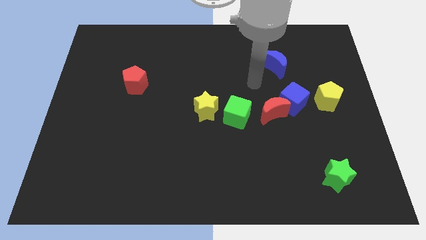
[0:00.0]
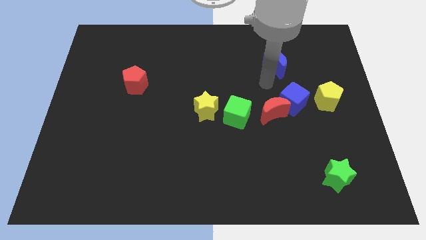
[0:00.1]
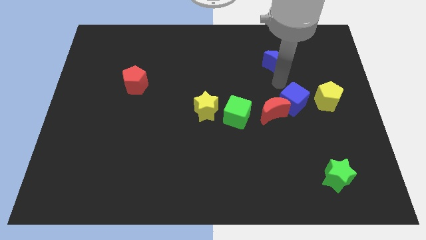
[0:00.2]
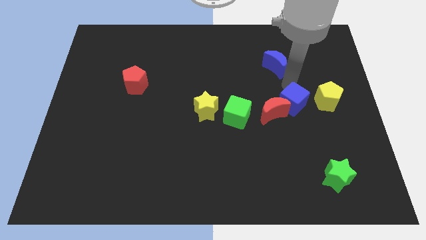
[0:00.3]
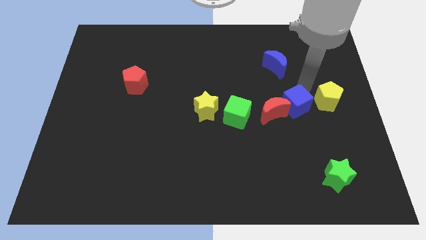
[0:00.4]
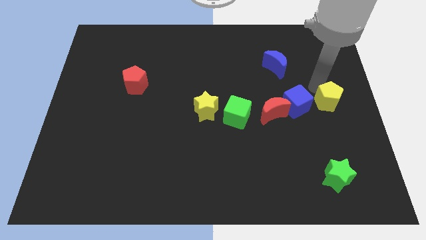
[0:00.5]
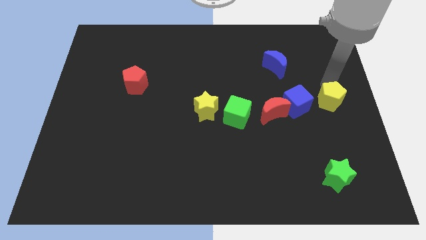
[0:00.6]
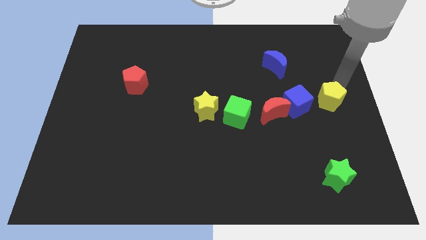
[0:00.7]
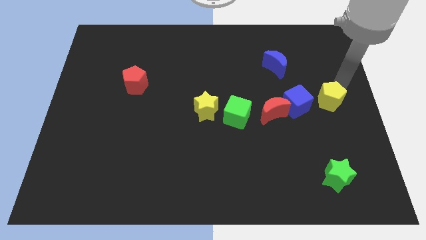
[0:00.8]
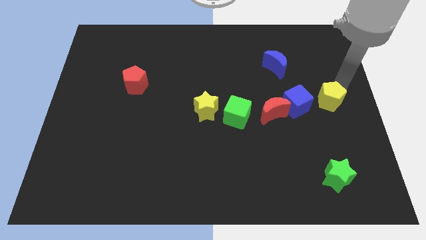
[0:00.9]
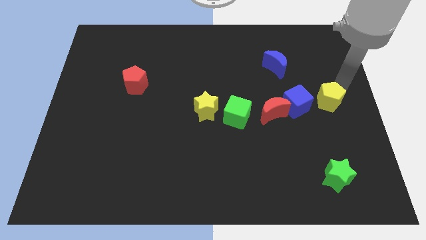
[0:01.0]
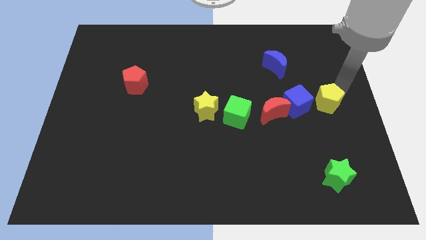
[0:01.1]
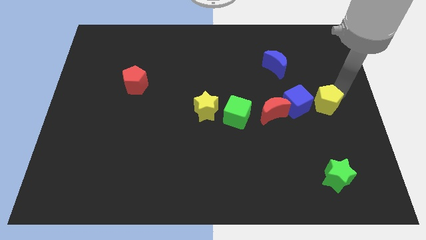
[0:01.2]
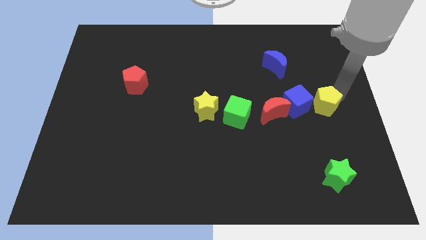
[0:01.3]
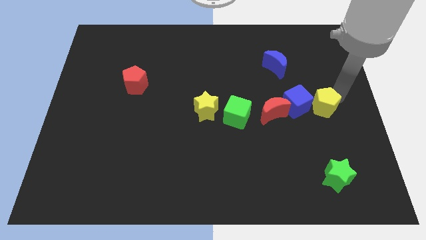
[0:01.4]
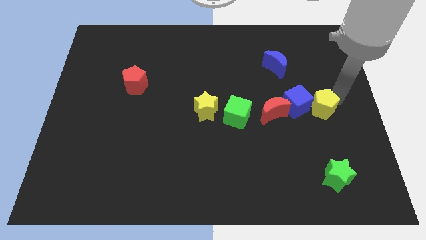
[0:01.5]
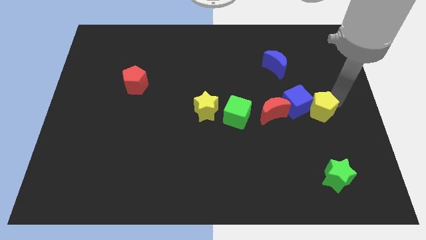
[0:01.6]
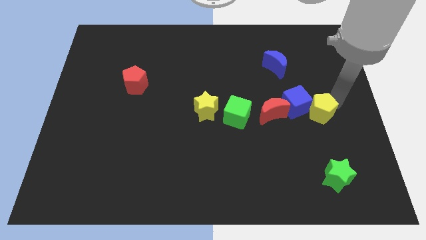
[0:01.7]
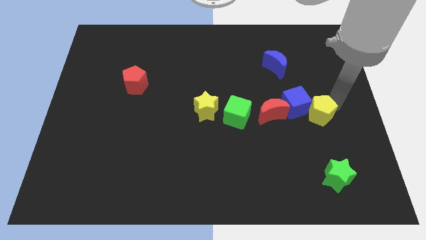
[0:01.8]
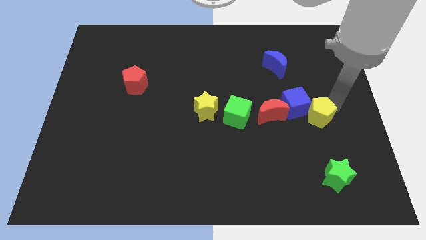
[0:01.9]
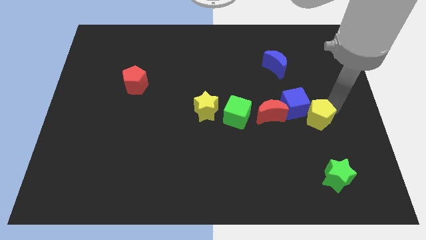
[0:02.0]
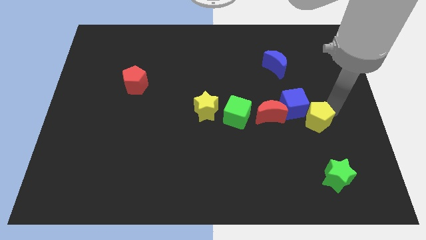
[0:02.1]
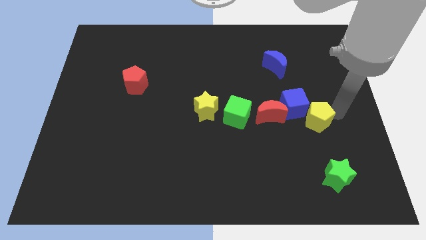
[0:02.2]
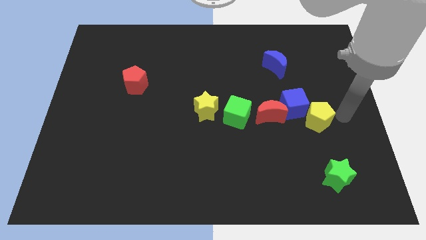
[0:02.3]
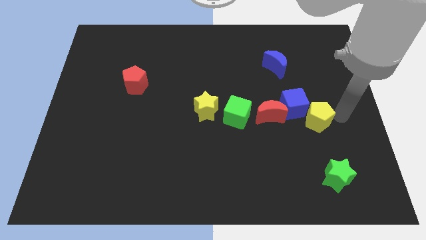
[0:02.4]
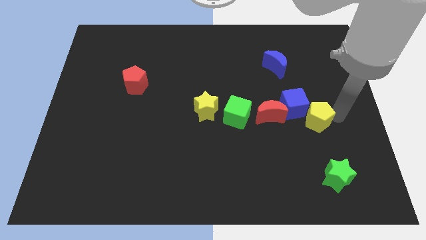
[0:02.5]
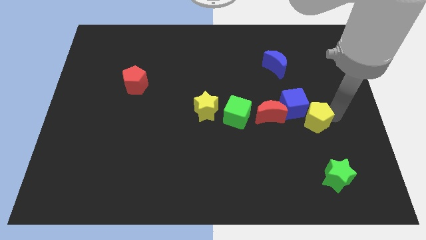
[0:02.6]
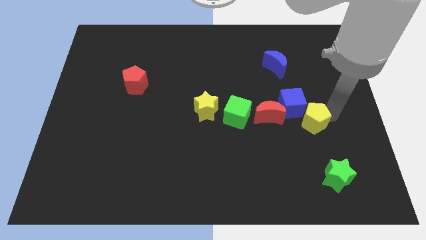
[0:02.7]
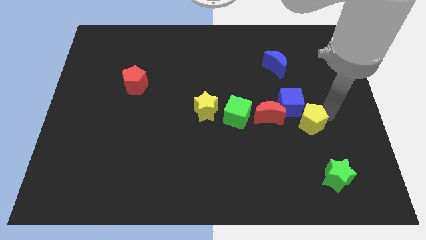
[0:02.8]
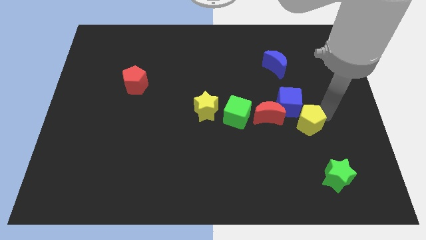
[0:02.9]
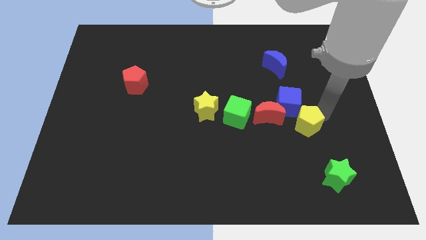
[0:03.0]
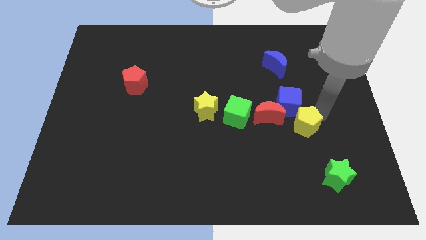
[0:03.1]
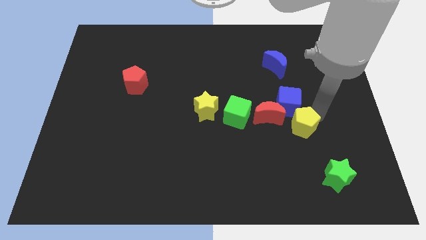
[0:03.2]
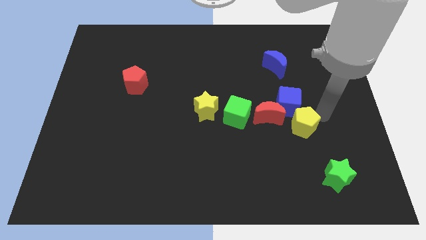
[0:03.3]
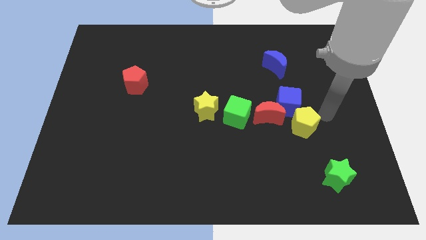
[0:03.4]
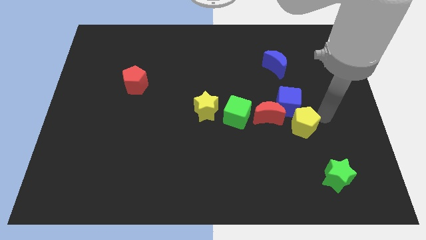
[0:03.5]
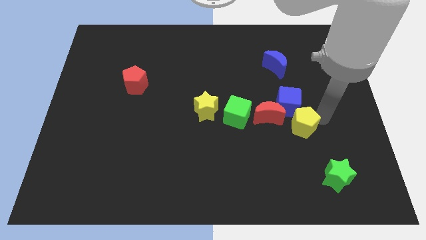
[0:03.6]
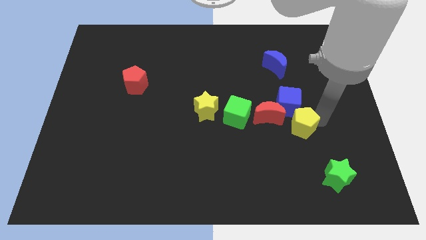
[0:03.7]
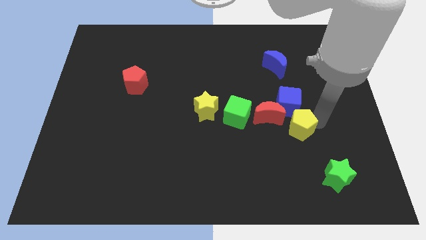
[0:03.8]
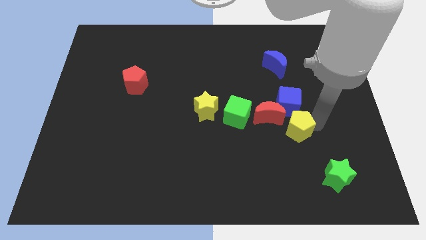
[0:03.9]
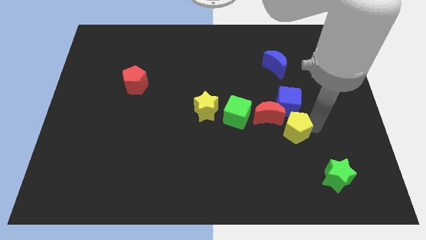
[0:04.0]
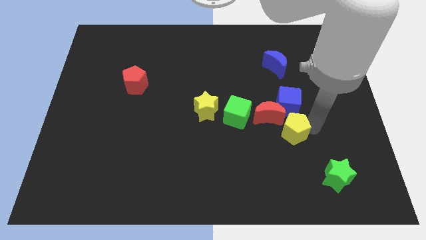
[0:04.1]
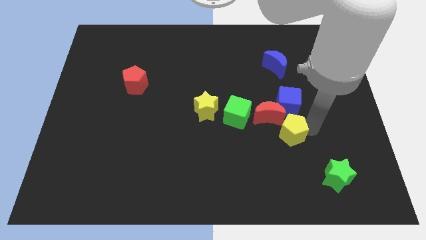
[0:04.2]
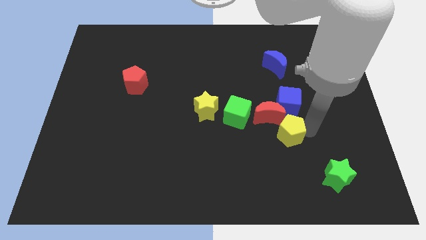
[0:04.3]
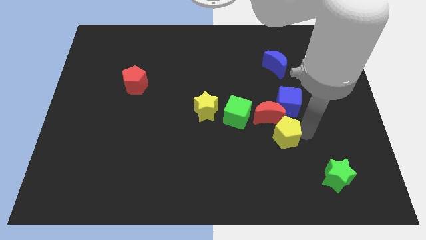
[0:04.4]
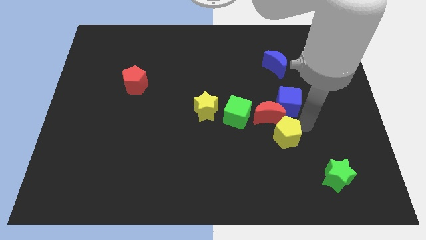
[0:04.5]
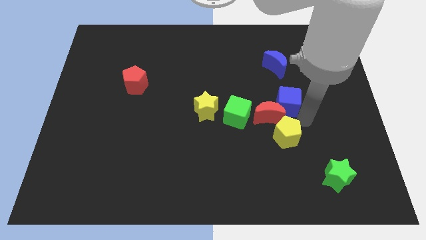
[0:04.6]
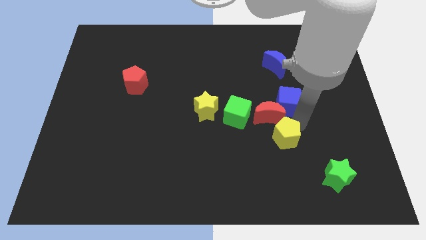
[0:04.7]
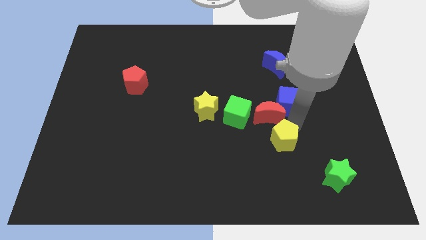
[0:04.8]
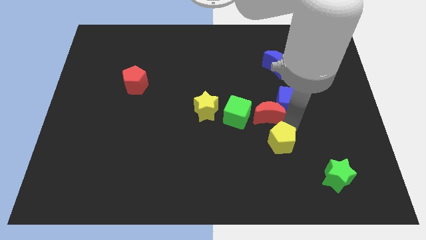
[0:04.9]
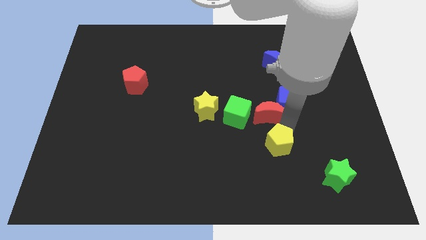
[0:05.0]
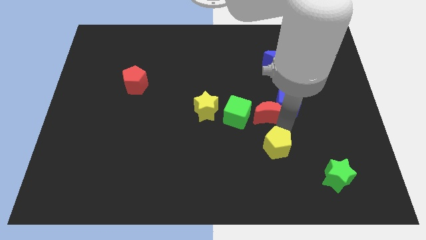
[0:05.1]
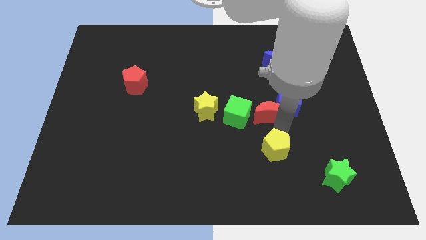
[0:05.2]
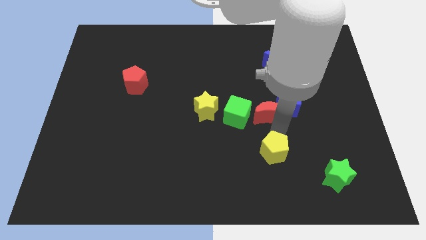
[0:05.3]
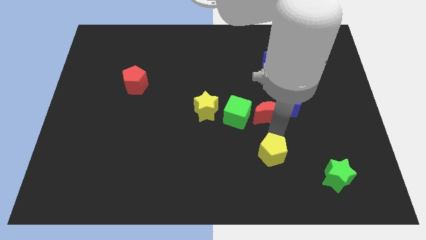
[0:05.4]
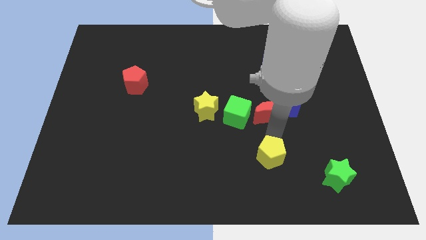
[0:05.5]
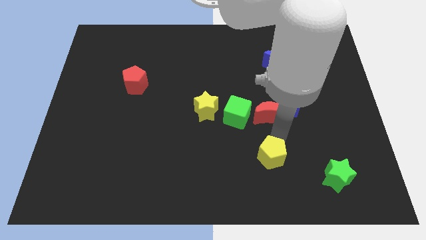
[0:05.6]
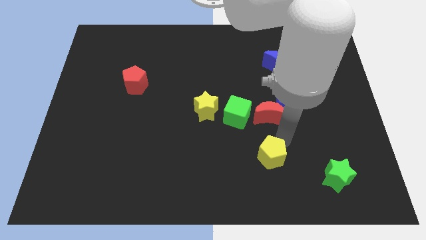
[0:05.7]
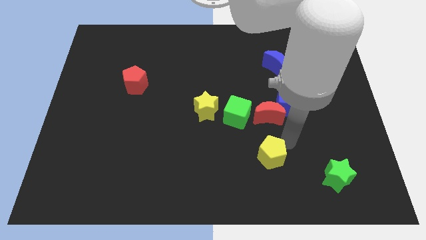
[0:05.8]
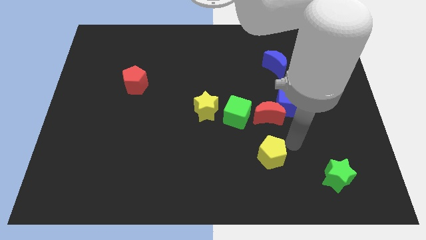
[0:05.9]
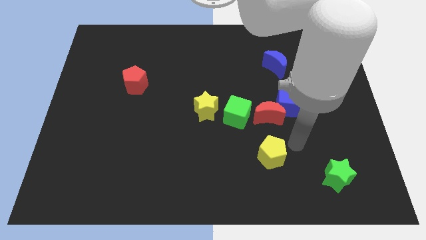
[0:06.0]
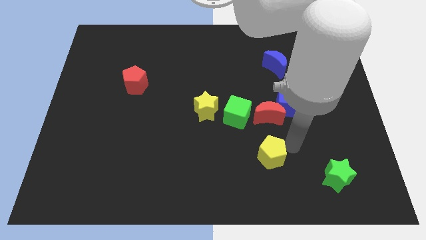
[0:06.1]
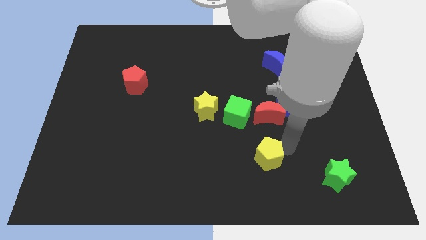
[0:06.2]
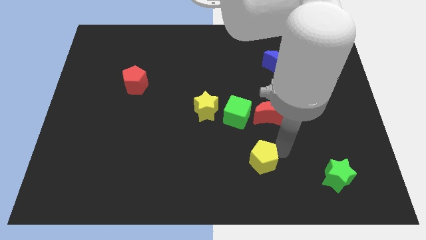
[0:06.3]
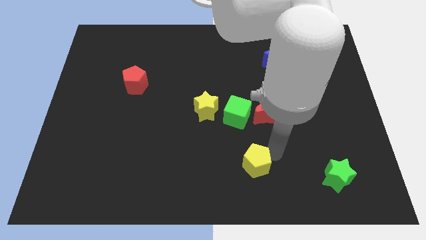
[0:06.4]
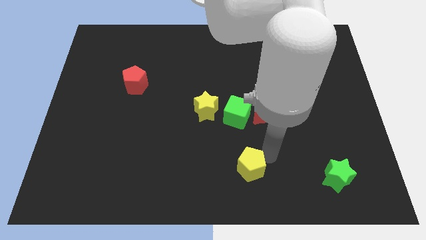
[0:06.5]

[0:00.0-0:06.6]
move the yellow pentagon to the bottom side

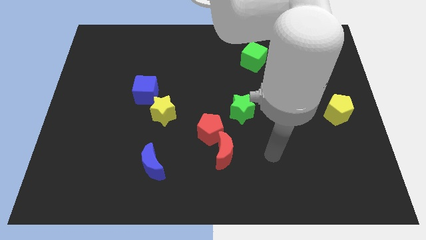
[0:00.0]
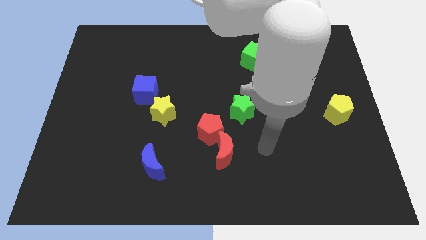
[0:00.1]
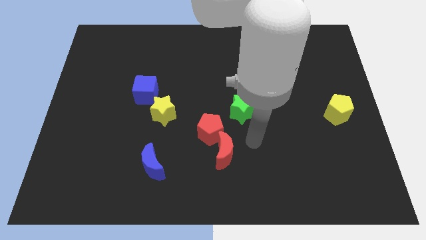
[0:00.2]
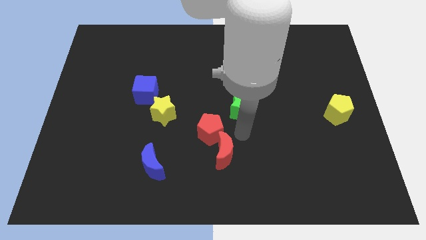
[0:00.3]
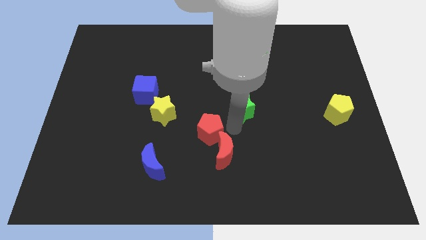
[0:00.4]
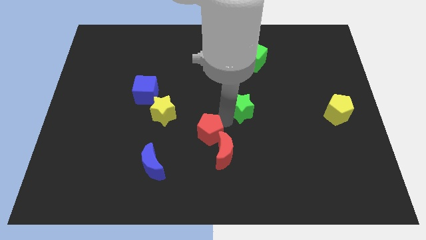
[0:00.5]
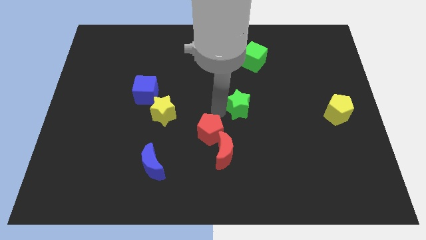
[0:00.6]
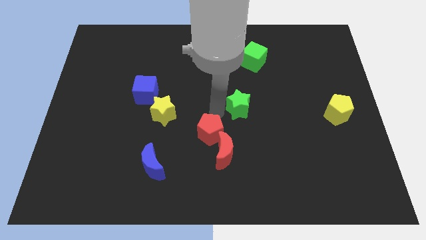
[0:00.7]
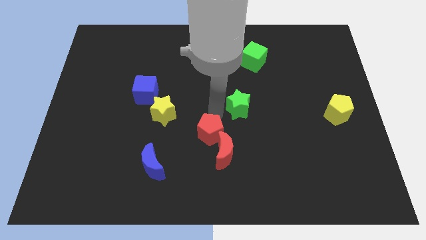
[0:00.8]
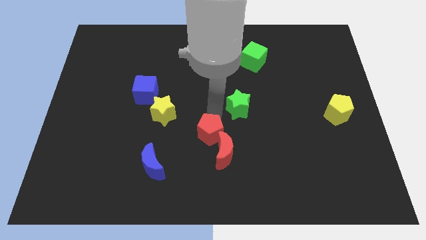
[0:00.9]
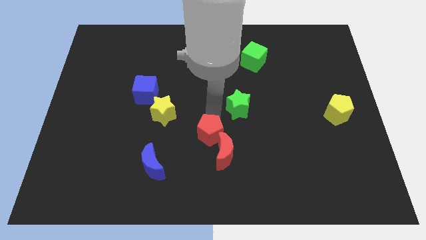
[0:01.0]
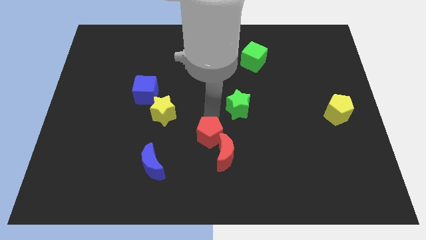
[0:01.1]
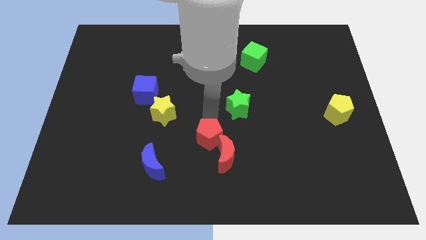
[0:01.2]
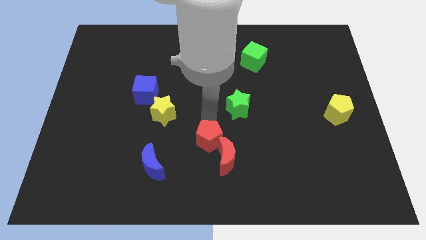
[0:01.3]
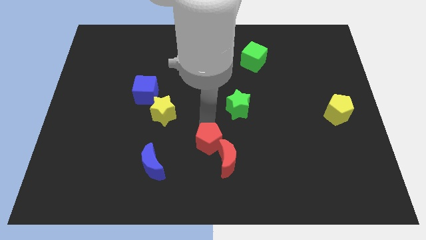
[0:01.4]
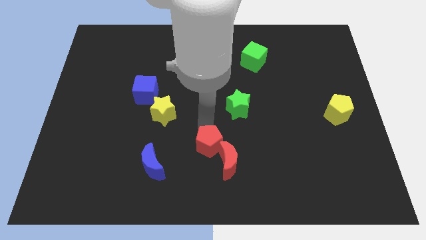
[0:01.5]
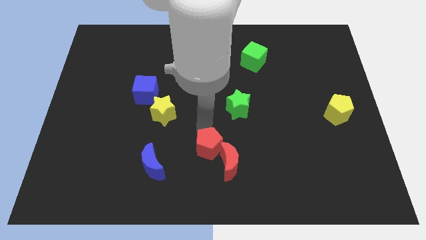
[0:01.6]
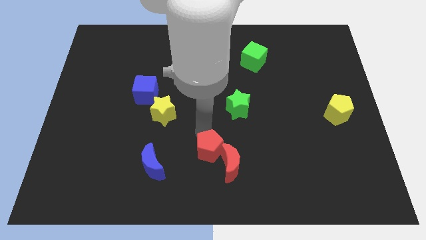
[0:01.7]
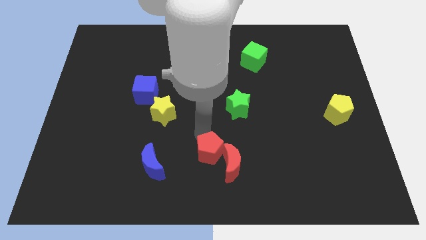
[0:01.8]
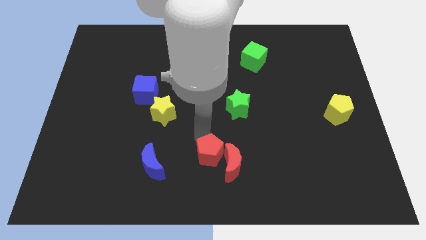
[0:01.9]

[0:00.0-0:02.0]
slide the red pentagon to the bottom
